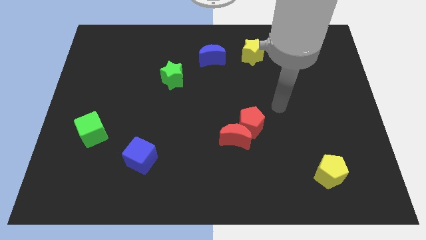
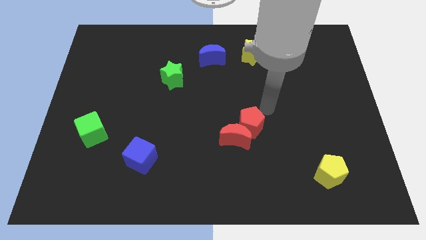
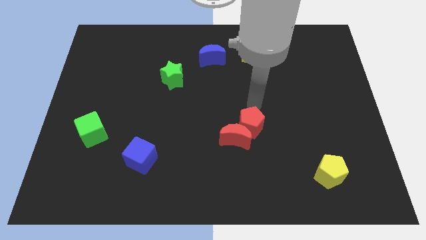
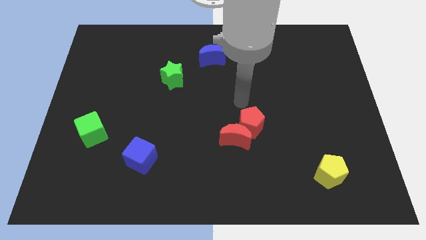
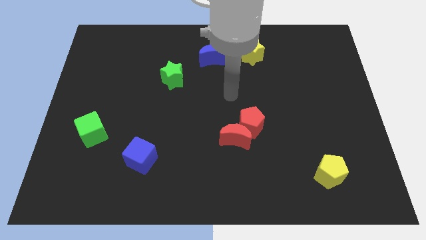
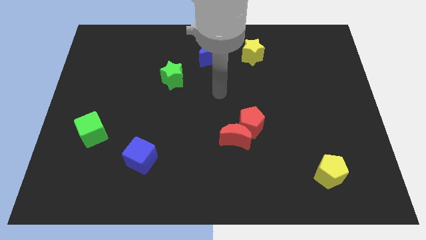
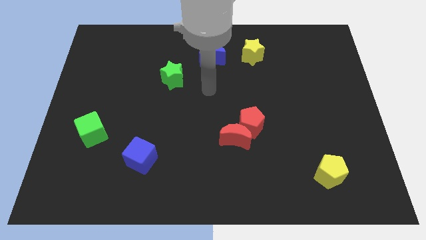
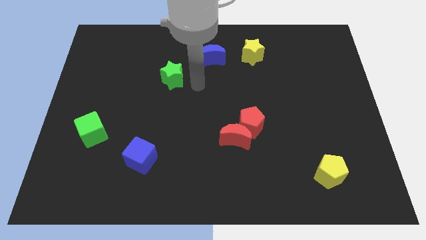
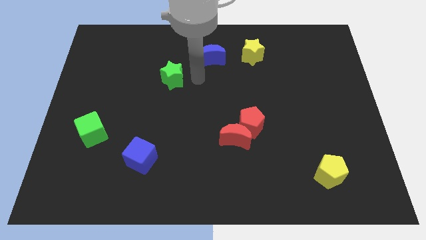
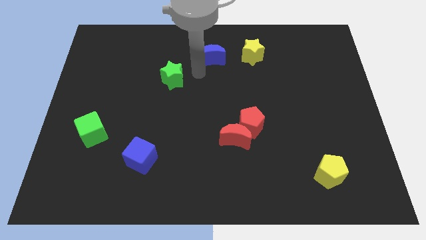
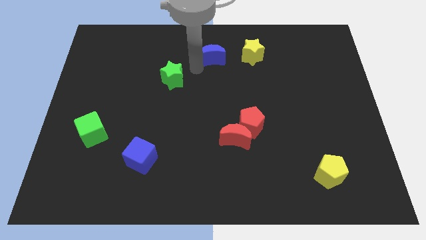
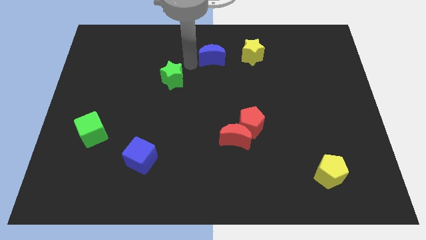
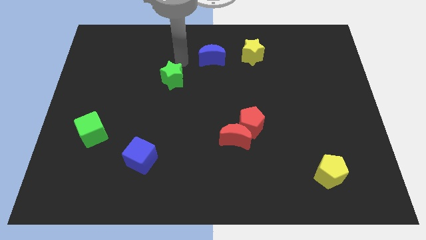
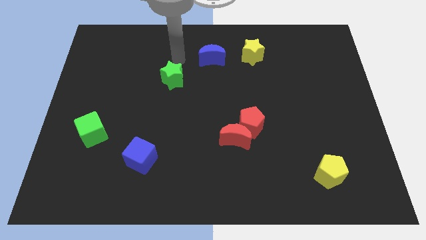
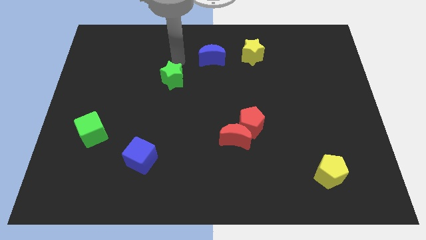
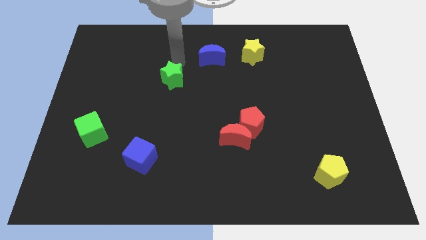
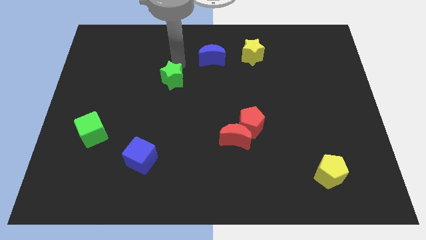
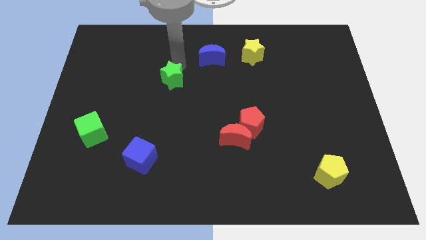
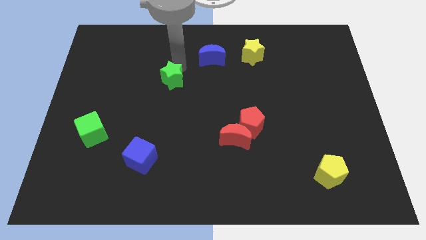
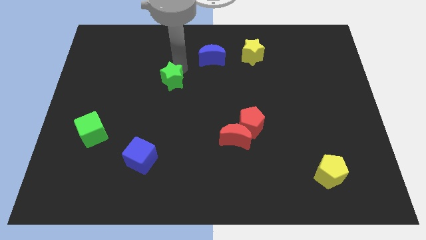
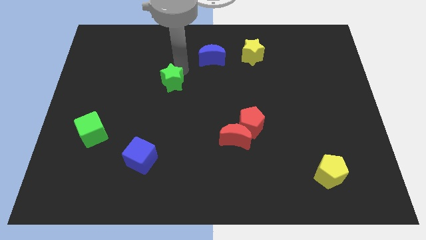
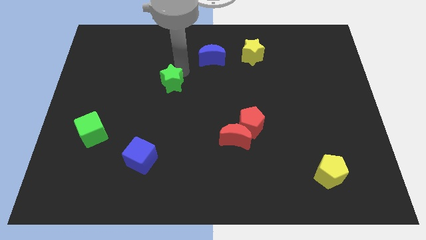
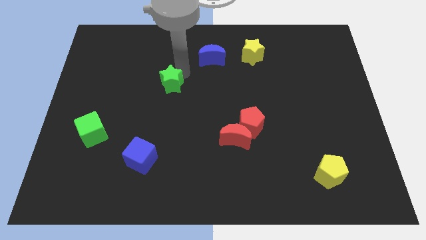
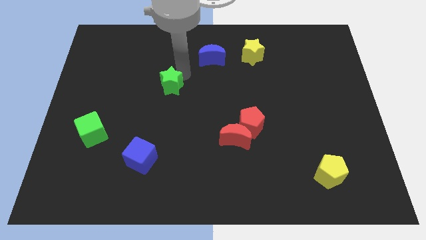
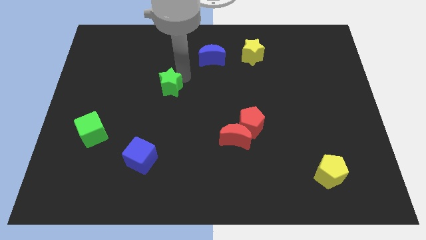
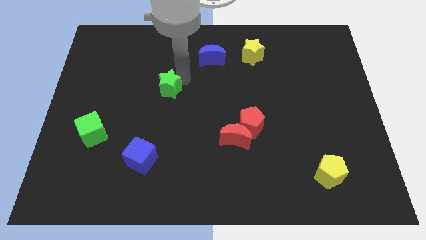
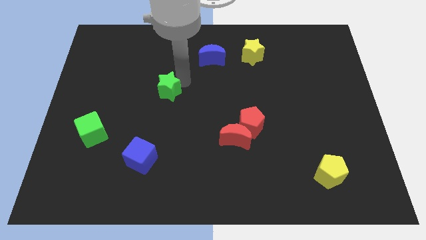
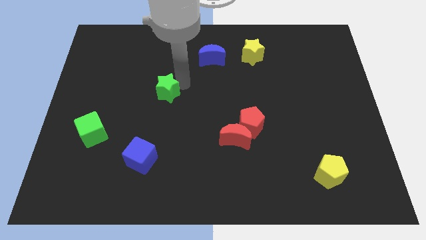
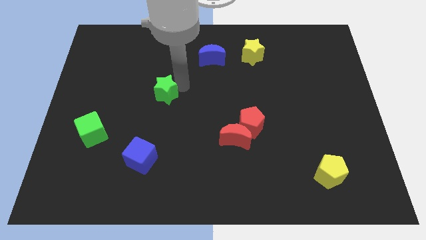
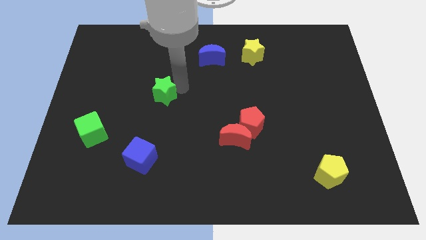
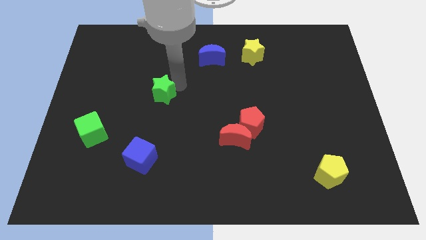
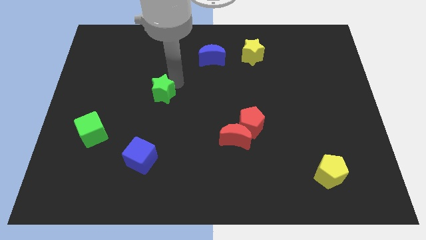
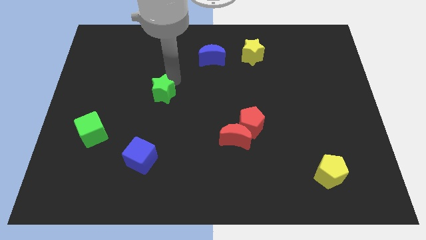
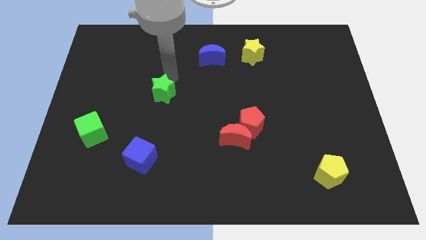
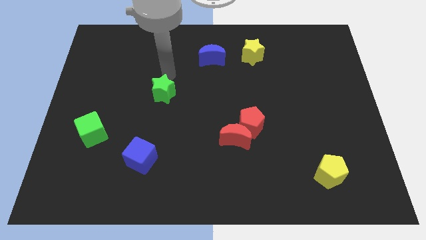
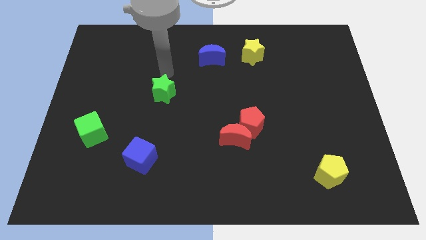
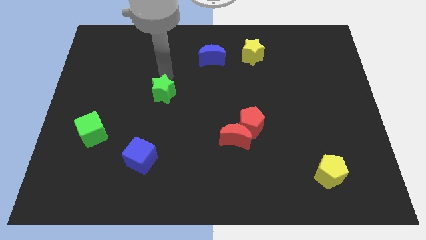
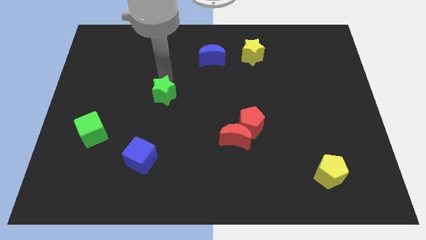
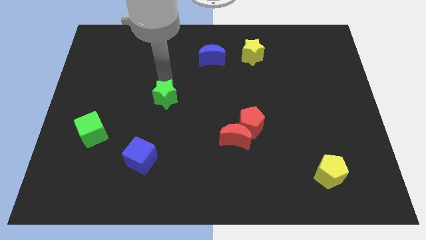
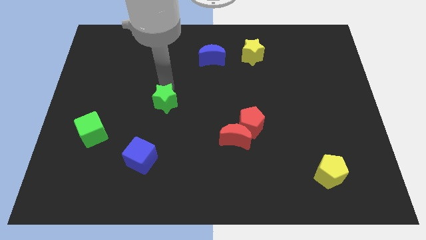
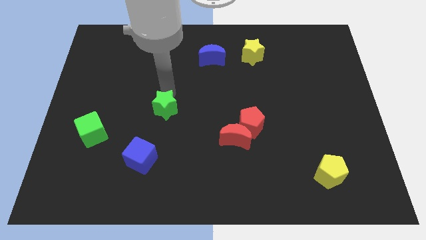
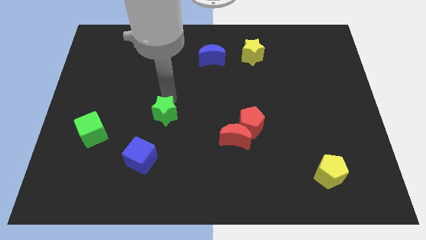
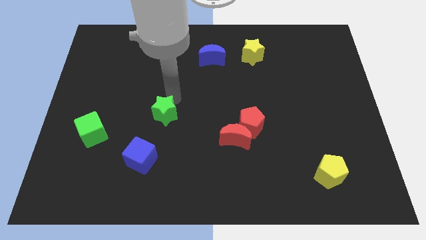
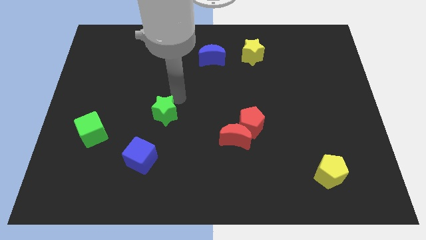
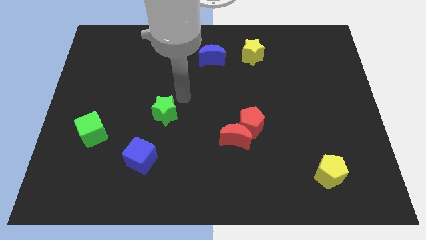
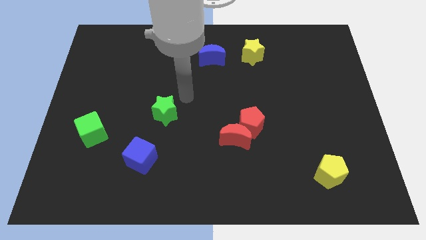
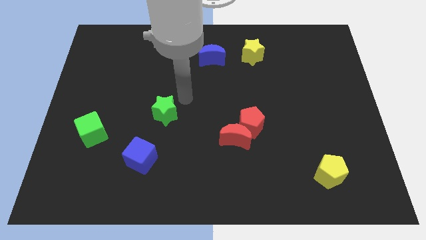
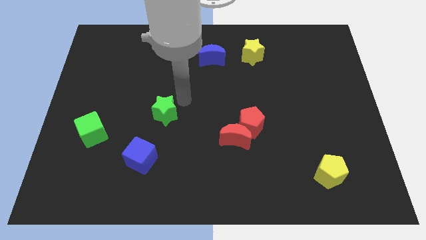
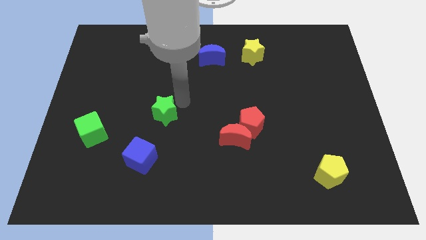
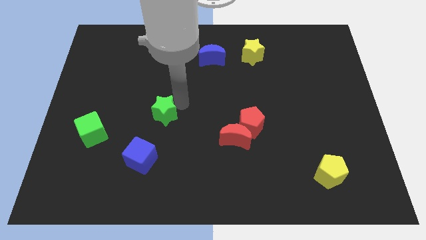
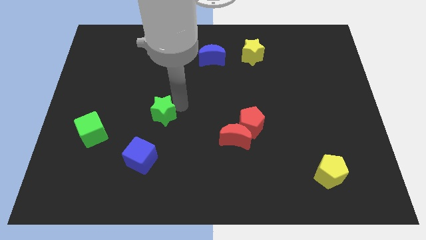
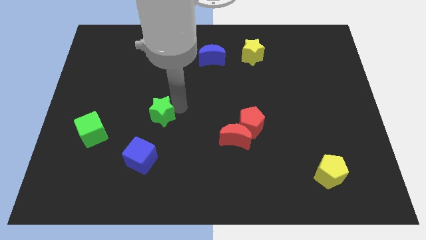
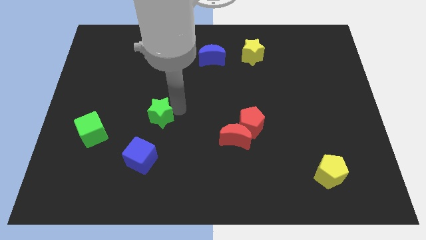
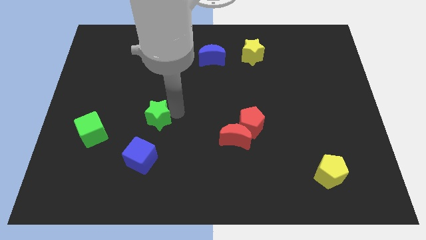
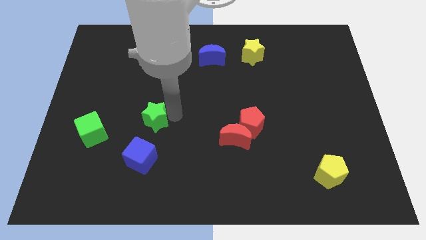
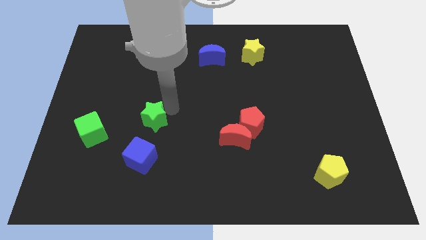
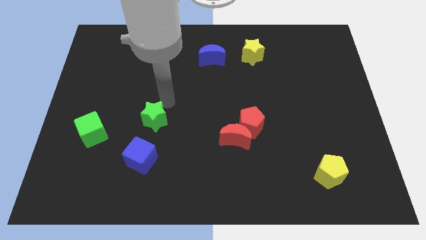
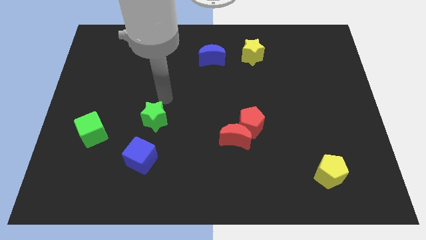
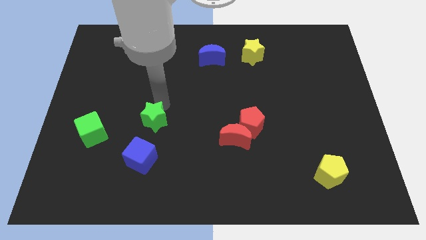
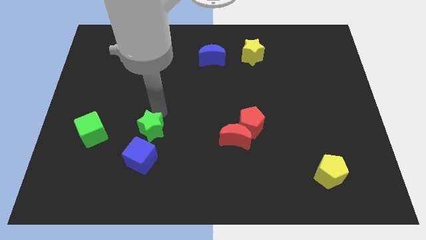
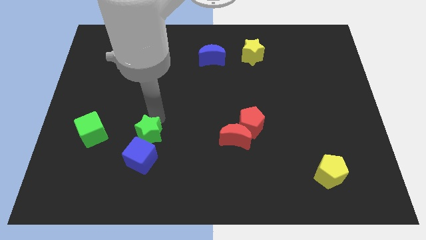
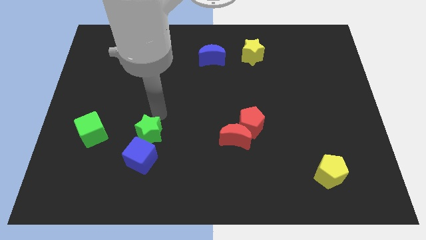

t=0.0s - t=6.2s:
push the green star towards the blue cube
